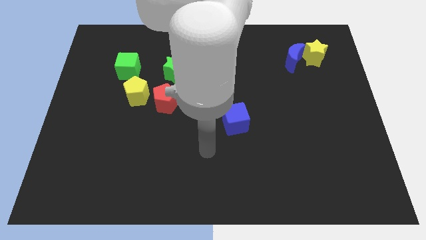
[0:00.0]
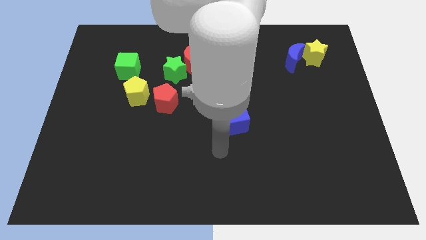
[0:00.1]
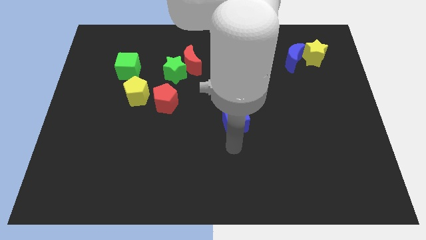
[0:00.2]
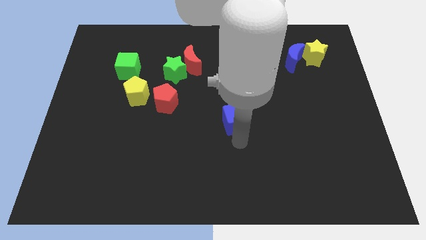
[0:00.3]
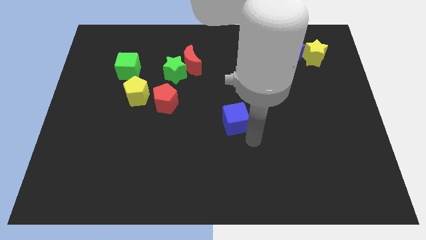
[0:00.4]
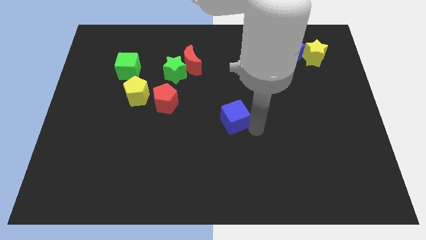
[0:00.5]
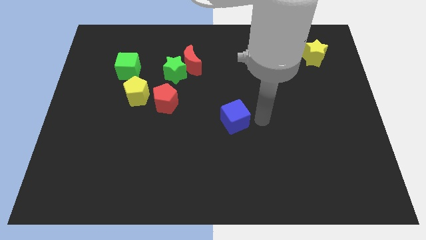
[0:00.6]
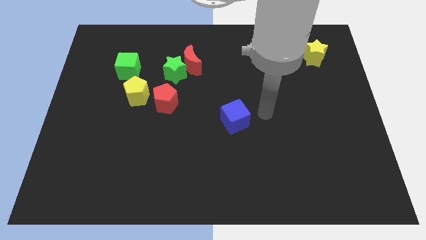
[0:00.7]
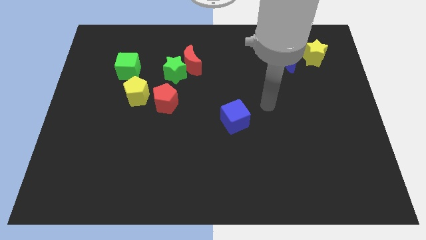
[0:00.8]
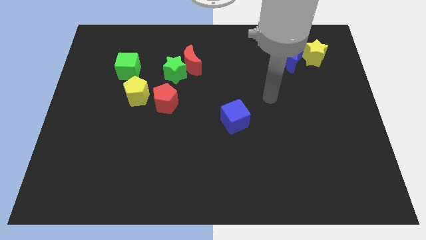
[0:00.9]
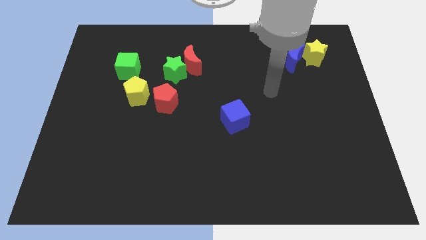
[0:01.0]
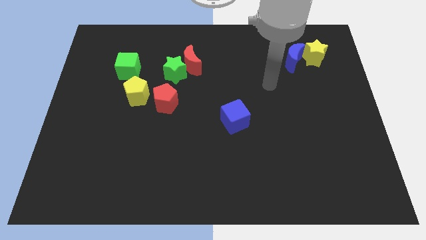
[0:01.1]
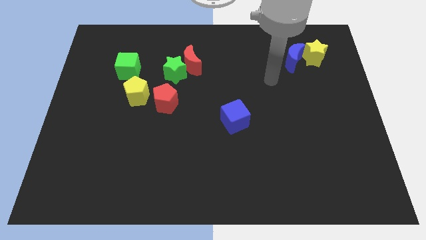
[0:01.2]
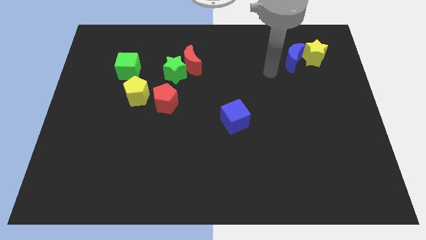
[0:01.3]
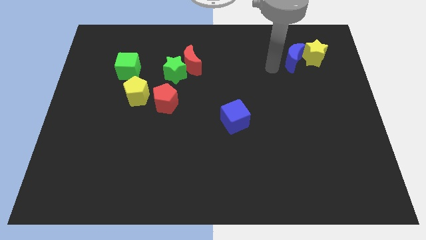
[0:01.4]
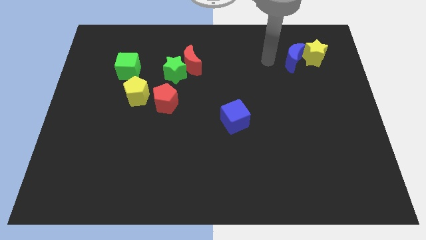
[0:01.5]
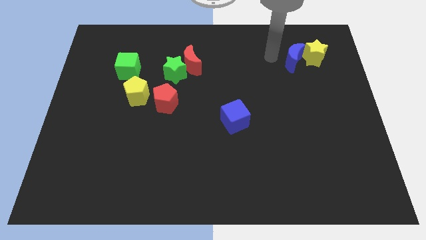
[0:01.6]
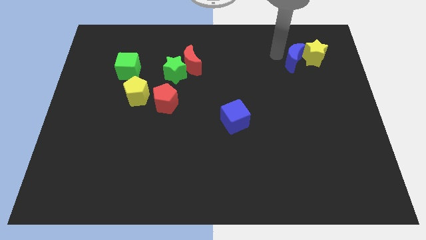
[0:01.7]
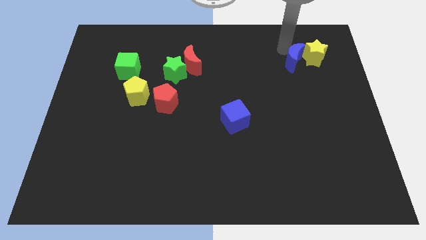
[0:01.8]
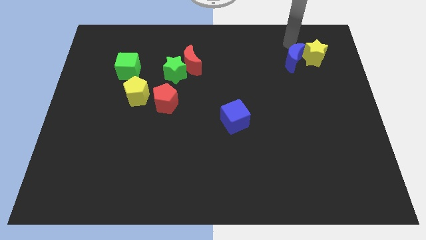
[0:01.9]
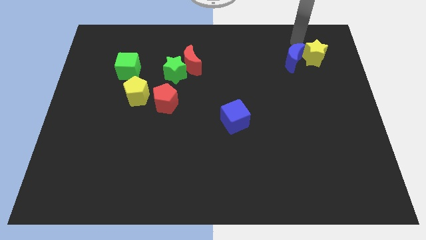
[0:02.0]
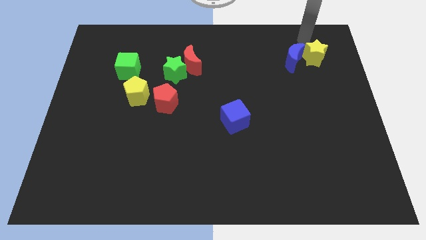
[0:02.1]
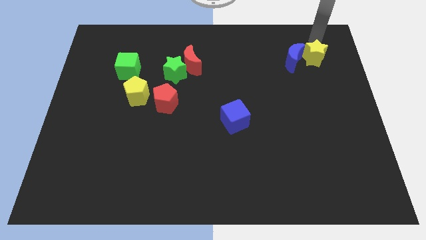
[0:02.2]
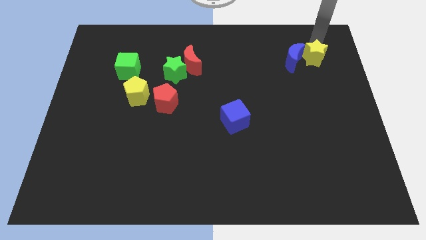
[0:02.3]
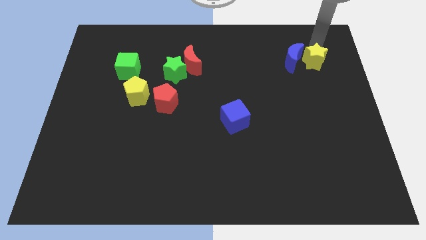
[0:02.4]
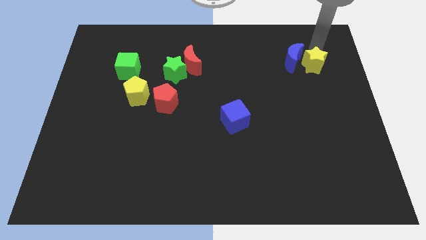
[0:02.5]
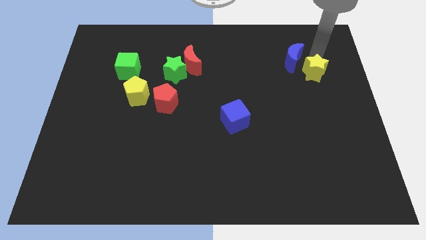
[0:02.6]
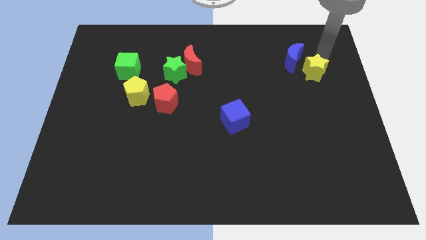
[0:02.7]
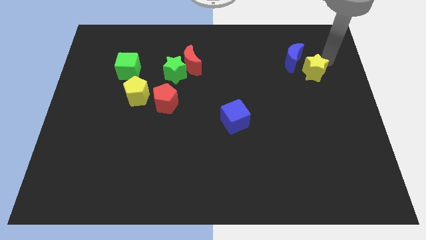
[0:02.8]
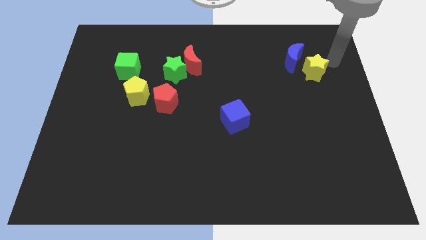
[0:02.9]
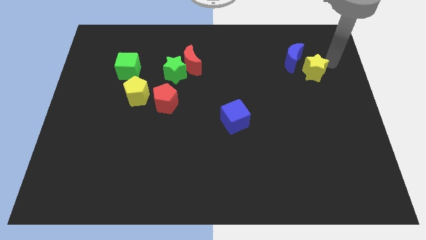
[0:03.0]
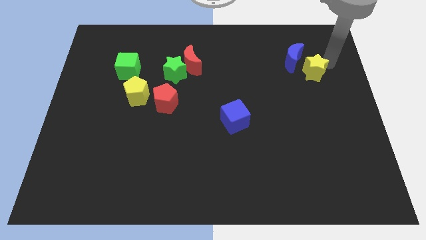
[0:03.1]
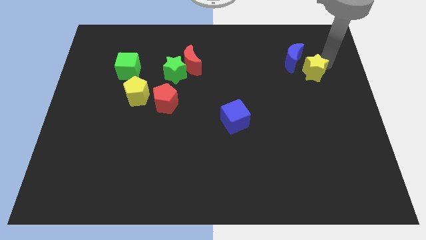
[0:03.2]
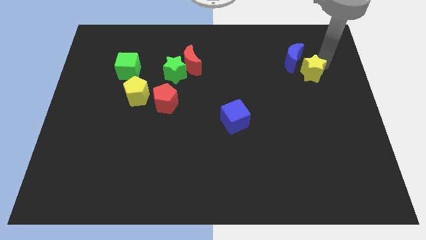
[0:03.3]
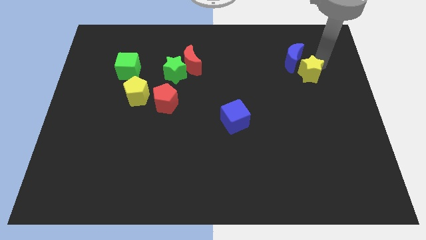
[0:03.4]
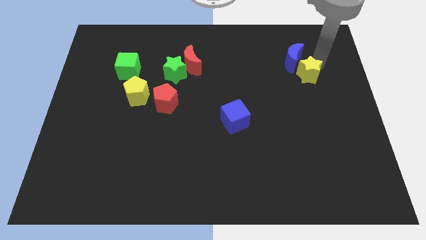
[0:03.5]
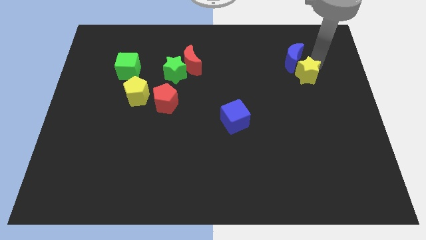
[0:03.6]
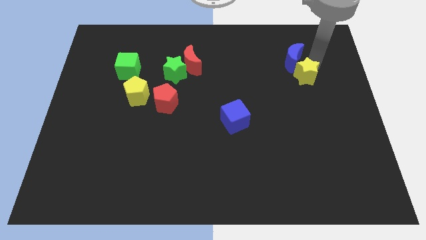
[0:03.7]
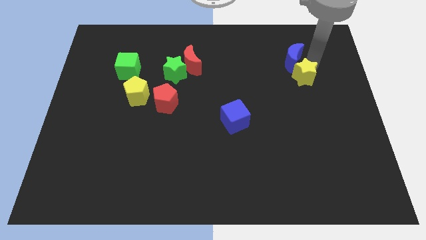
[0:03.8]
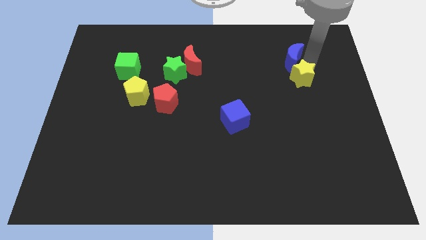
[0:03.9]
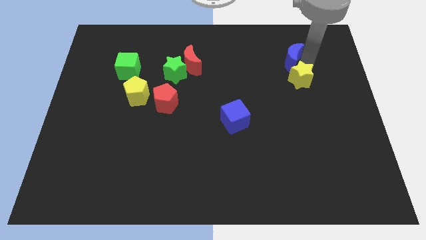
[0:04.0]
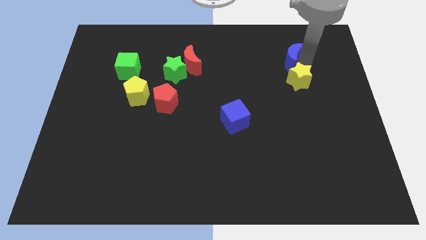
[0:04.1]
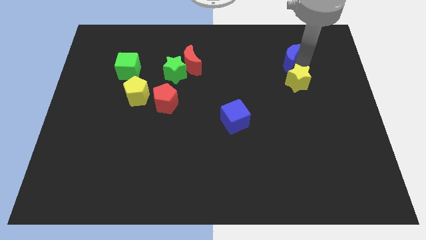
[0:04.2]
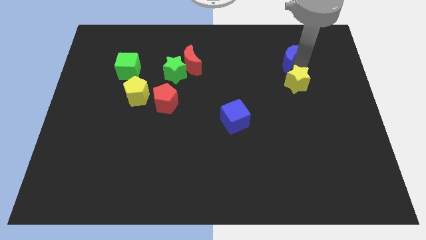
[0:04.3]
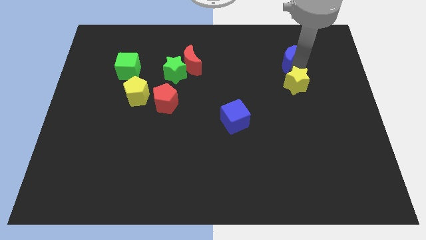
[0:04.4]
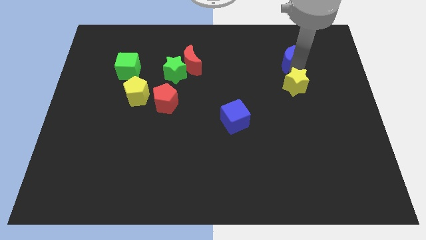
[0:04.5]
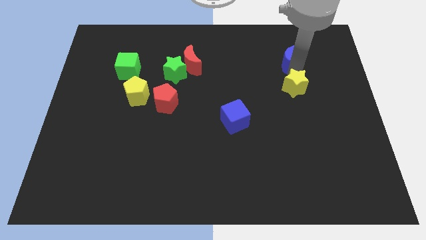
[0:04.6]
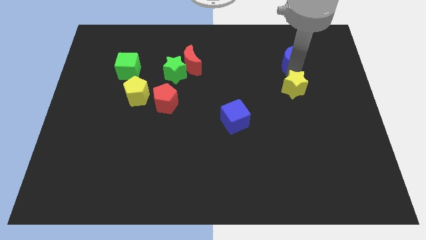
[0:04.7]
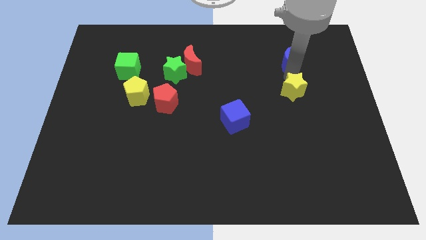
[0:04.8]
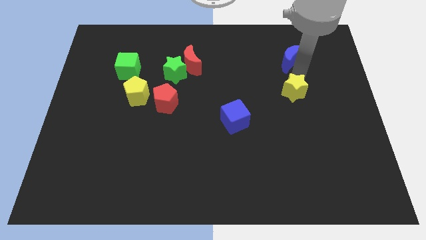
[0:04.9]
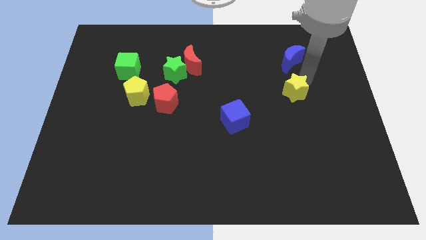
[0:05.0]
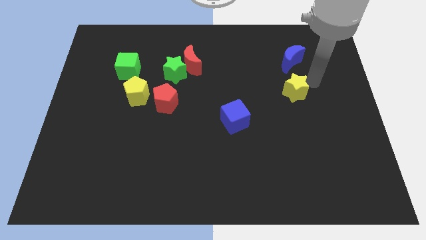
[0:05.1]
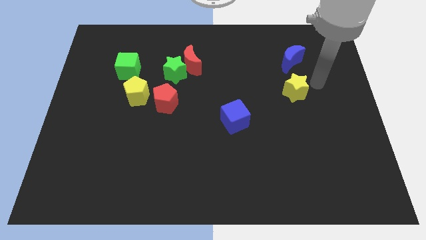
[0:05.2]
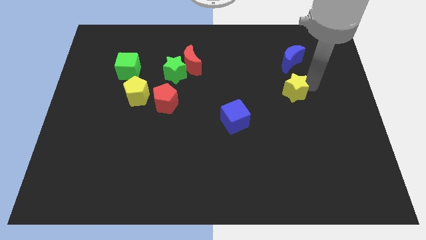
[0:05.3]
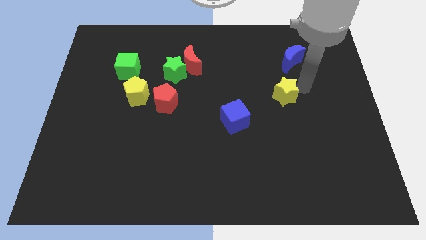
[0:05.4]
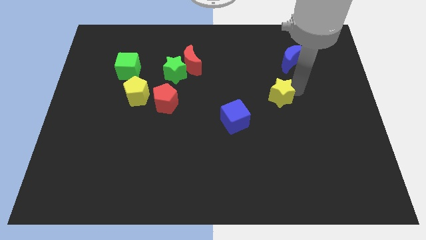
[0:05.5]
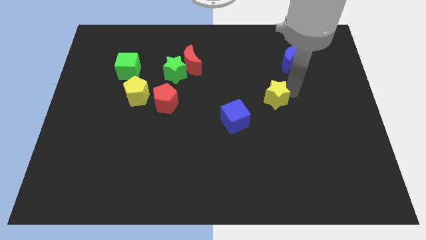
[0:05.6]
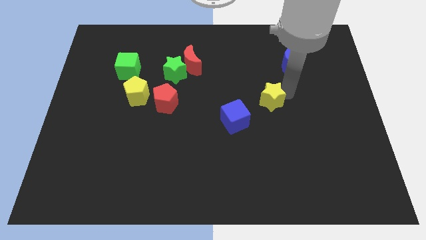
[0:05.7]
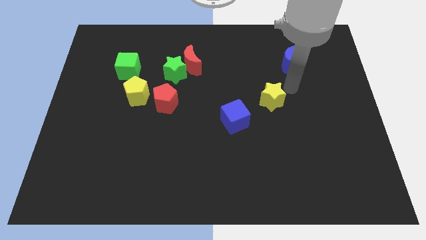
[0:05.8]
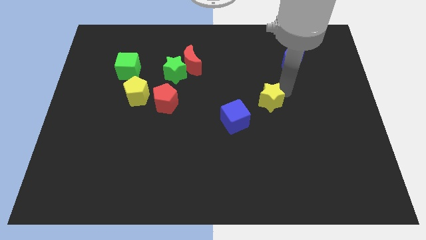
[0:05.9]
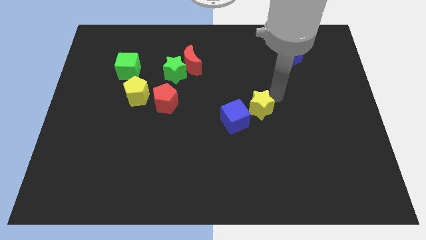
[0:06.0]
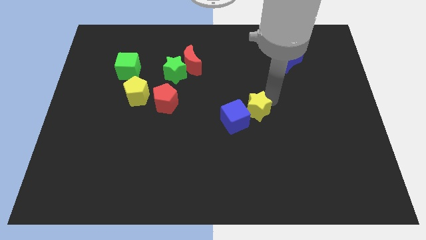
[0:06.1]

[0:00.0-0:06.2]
slide the yellow star next to the blue cube

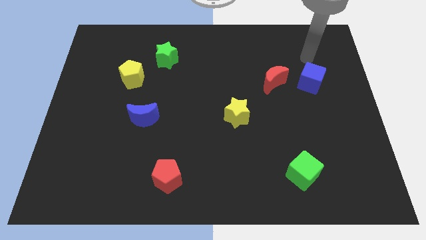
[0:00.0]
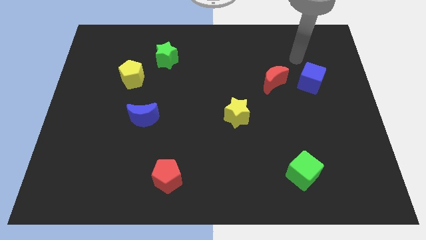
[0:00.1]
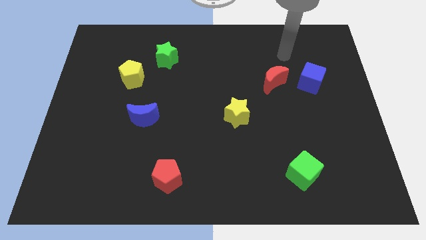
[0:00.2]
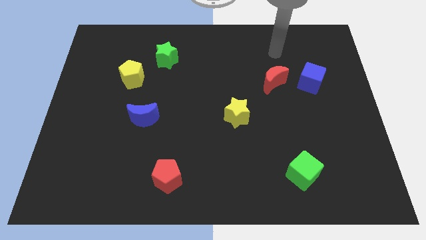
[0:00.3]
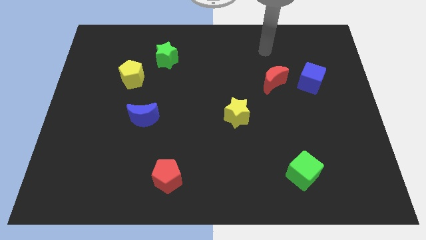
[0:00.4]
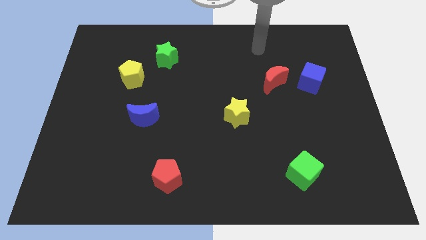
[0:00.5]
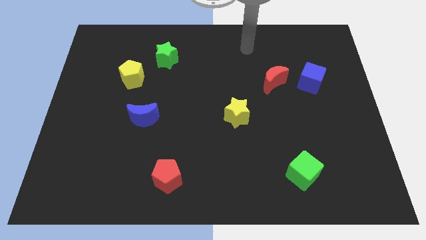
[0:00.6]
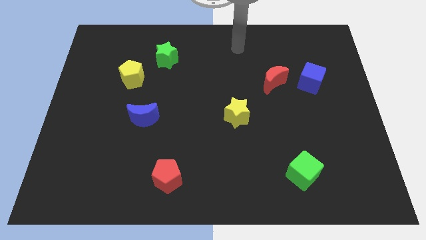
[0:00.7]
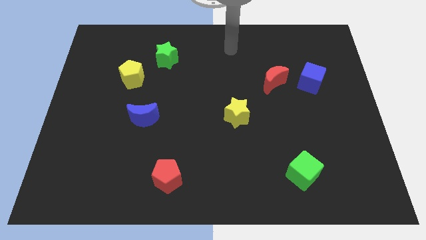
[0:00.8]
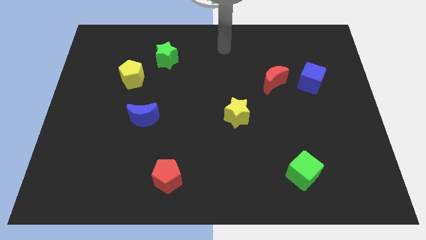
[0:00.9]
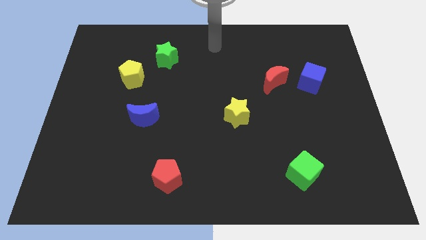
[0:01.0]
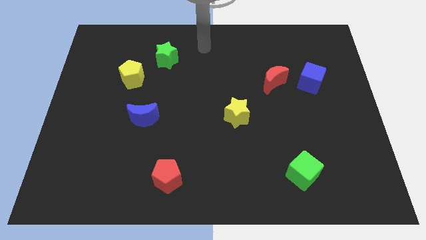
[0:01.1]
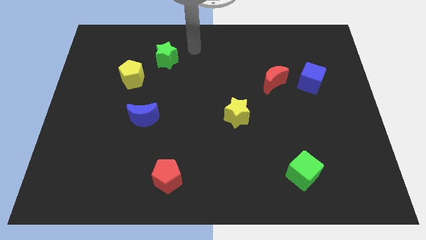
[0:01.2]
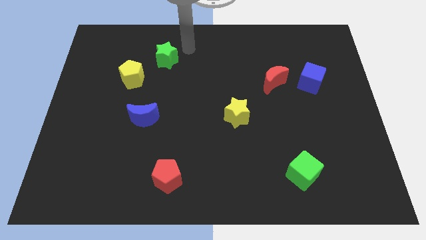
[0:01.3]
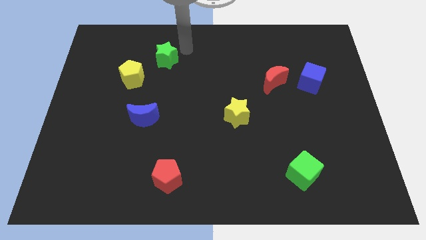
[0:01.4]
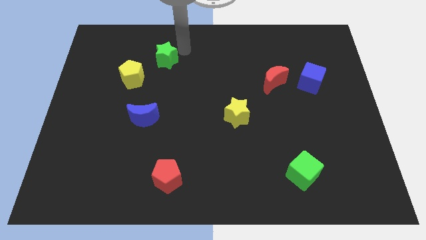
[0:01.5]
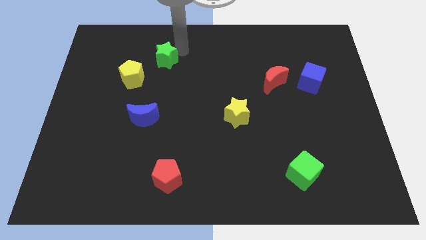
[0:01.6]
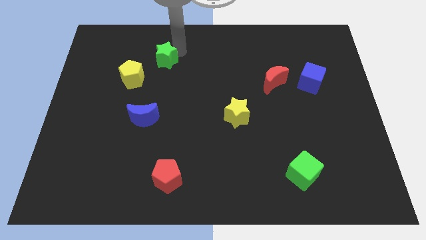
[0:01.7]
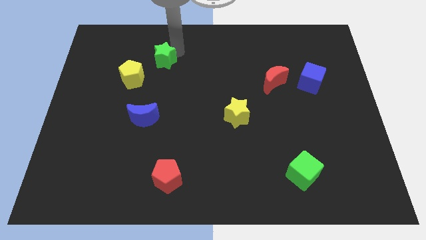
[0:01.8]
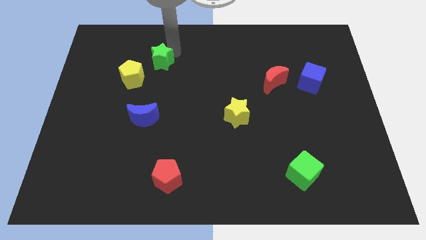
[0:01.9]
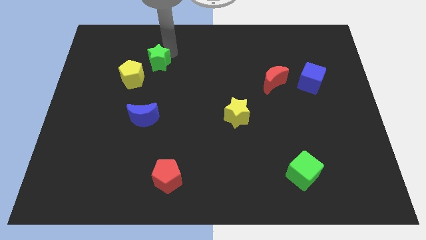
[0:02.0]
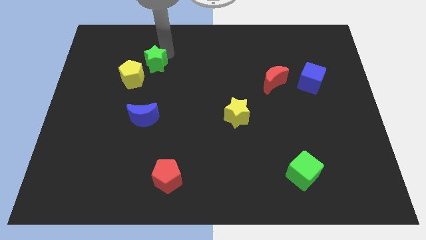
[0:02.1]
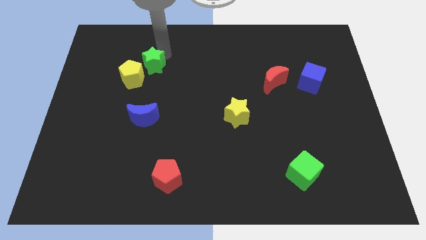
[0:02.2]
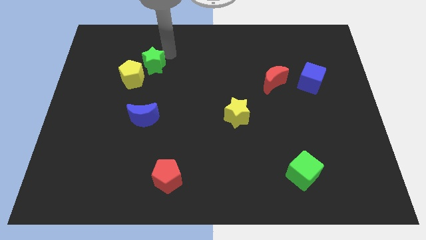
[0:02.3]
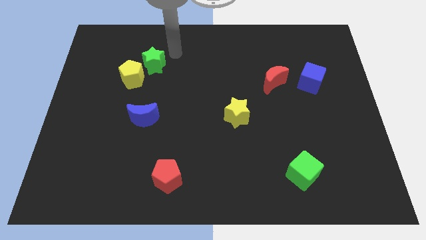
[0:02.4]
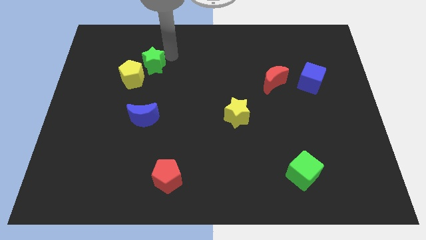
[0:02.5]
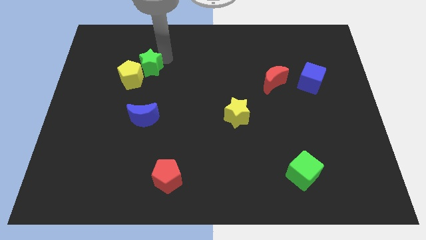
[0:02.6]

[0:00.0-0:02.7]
put the green star towards the yellow pentagon
